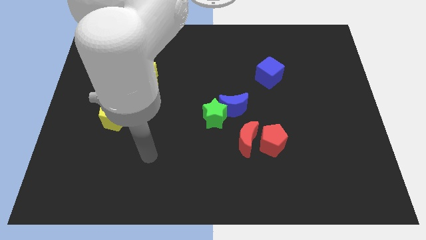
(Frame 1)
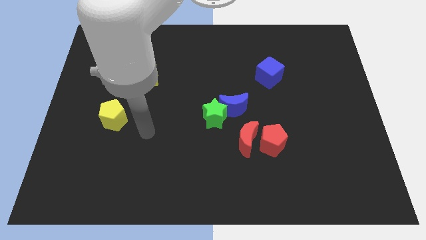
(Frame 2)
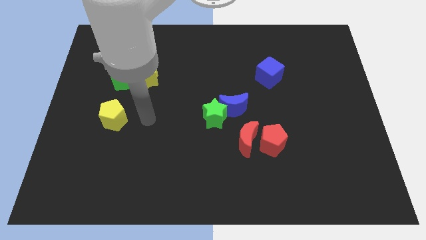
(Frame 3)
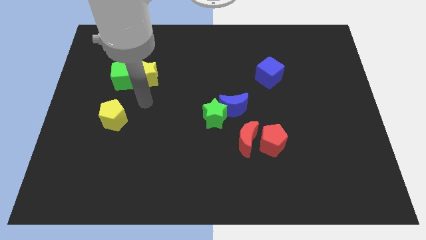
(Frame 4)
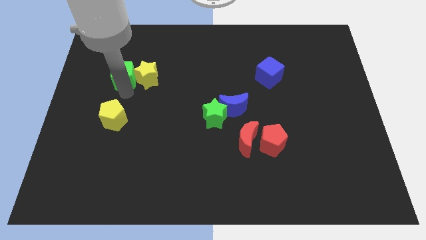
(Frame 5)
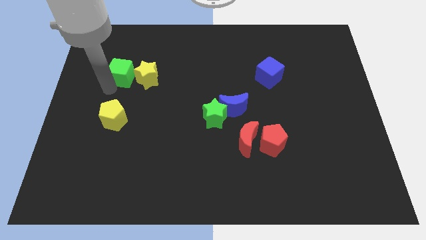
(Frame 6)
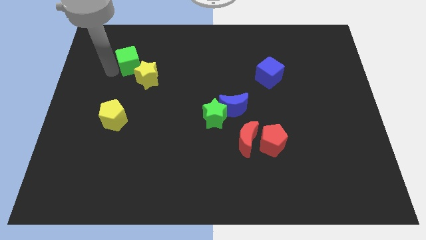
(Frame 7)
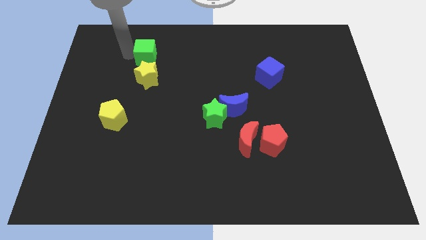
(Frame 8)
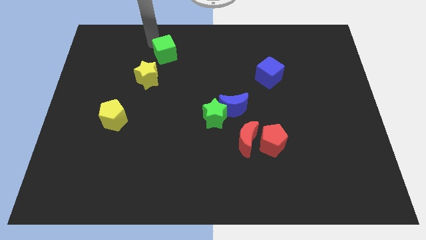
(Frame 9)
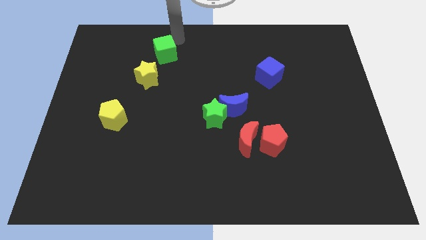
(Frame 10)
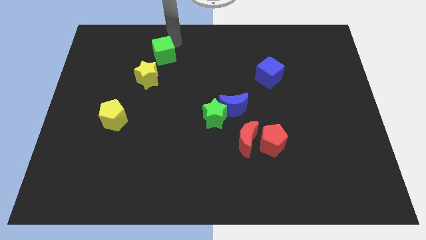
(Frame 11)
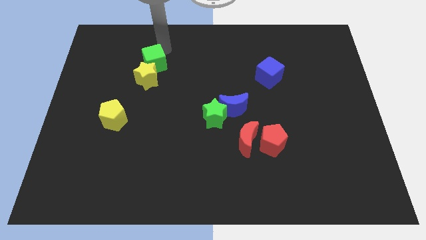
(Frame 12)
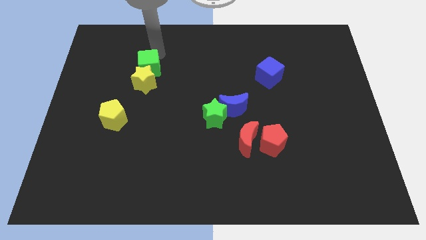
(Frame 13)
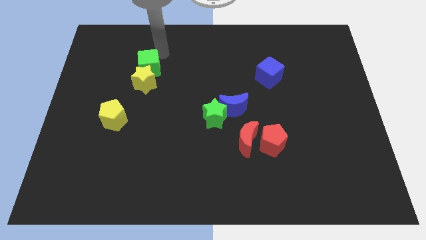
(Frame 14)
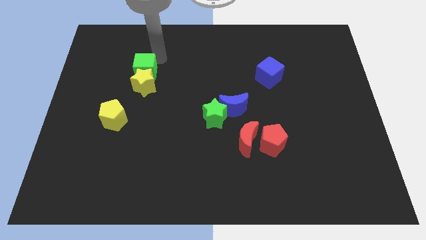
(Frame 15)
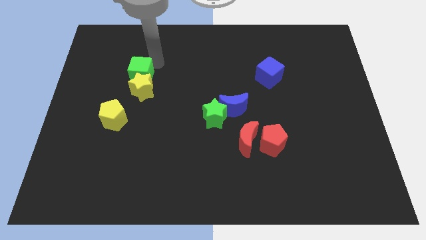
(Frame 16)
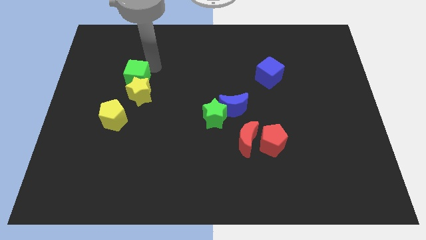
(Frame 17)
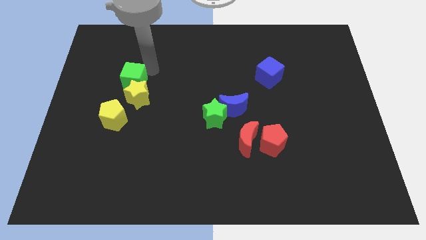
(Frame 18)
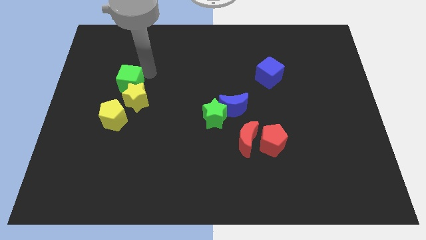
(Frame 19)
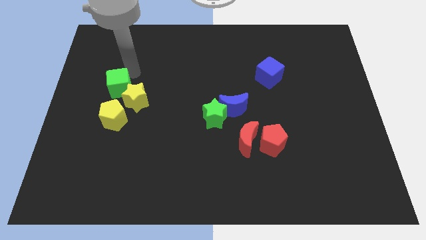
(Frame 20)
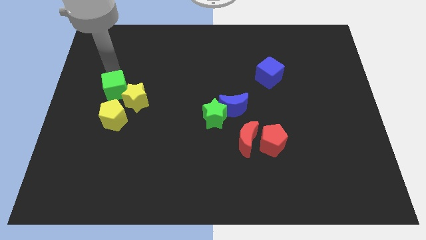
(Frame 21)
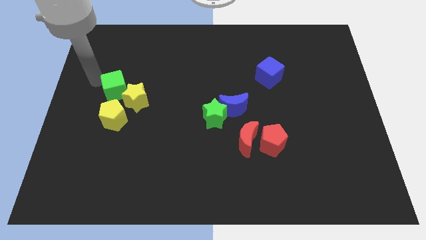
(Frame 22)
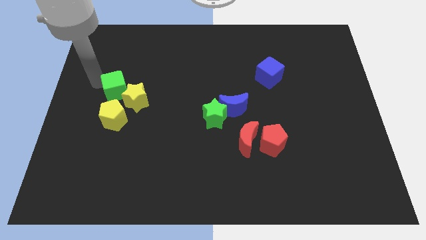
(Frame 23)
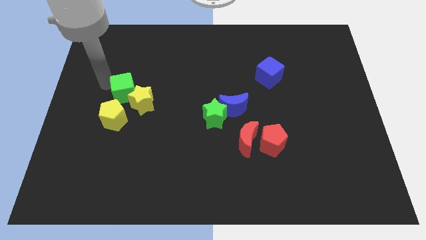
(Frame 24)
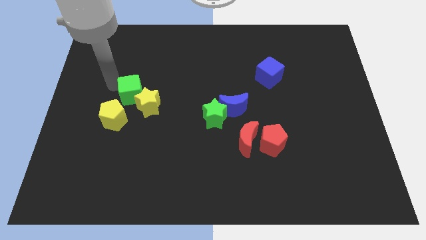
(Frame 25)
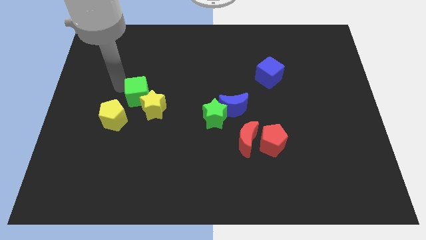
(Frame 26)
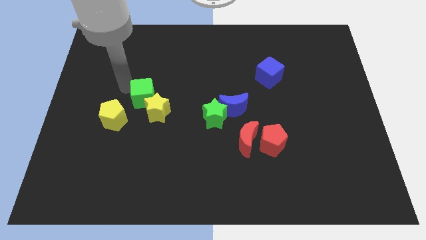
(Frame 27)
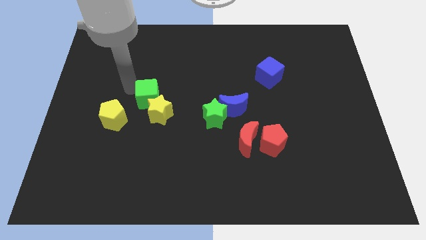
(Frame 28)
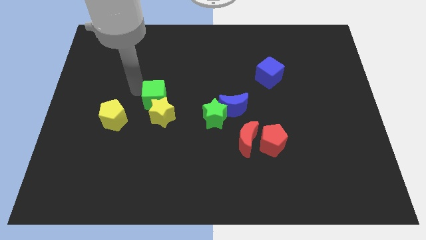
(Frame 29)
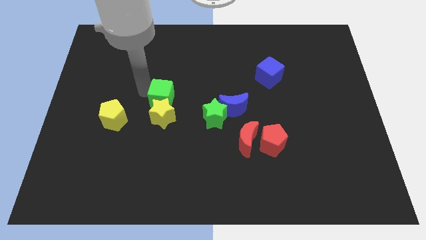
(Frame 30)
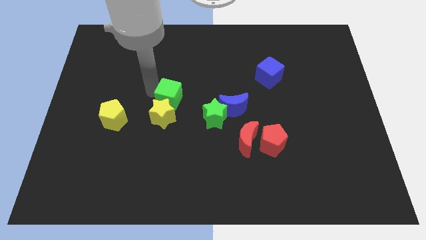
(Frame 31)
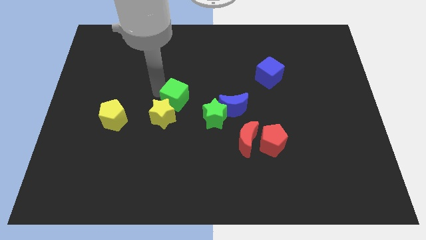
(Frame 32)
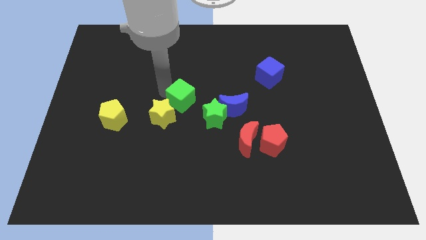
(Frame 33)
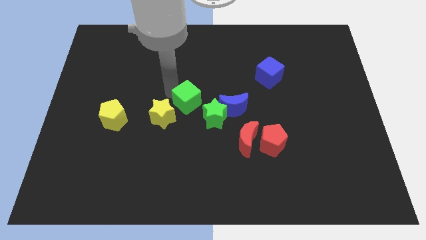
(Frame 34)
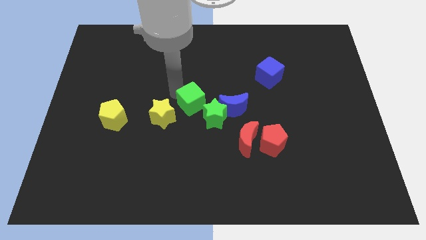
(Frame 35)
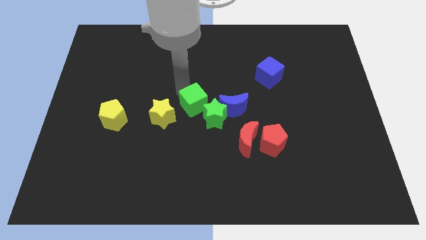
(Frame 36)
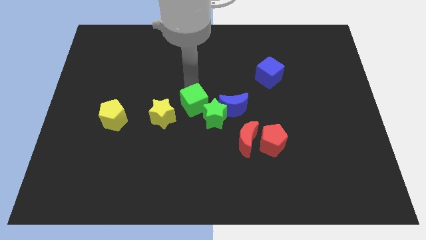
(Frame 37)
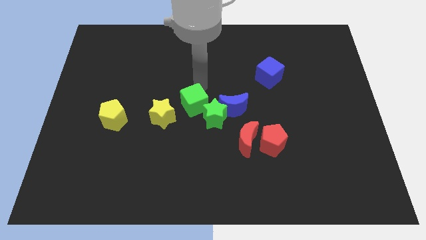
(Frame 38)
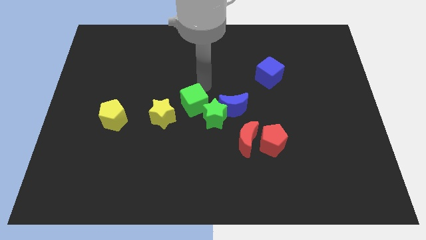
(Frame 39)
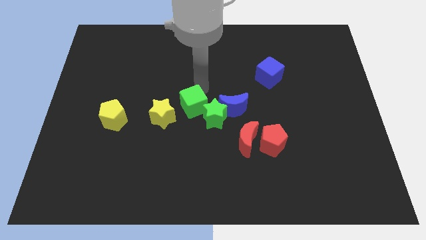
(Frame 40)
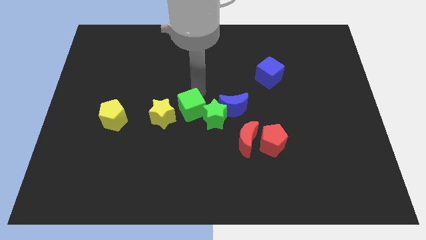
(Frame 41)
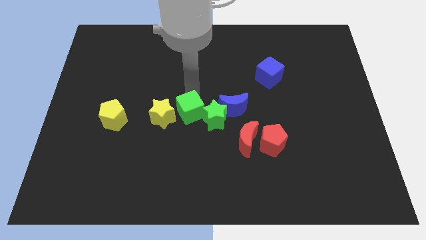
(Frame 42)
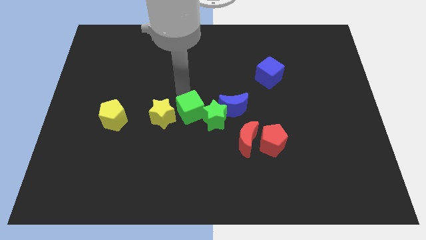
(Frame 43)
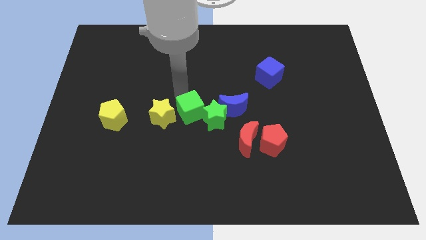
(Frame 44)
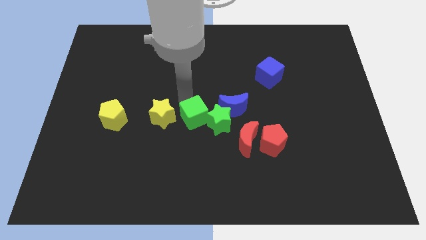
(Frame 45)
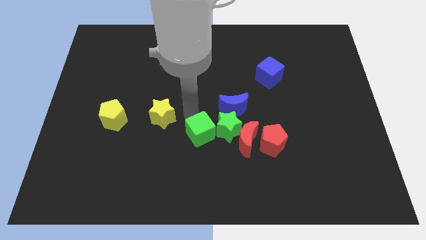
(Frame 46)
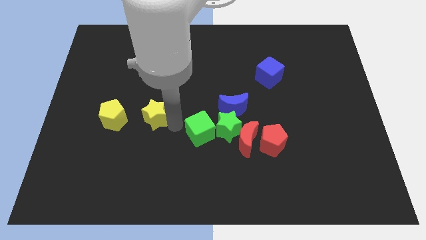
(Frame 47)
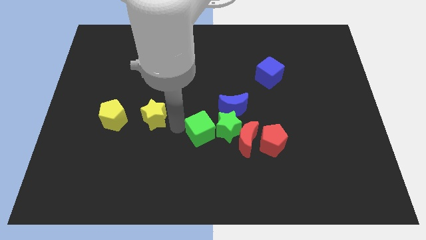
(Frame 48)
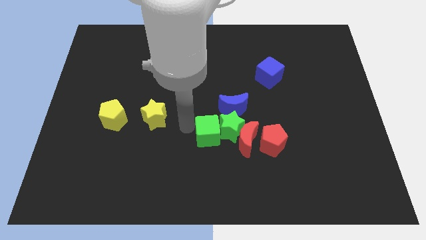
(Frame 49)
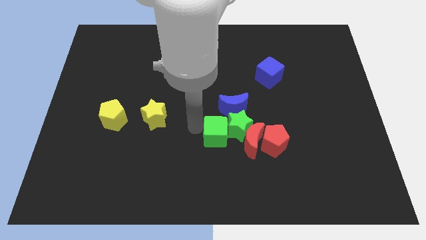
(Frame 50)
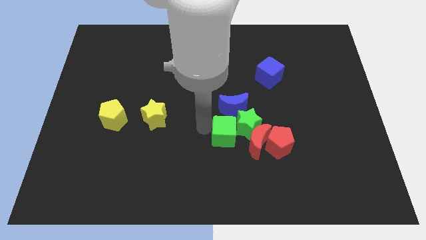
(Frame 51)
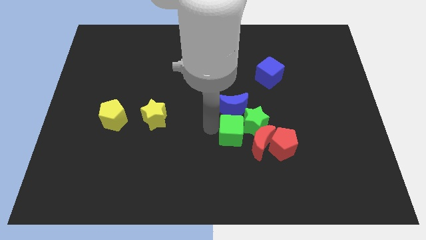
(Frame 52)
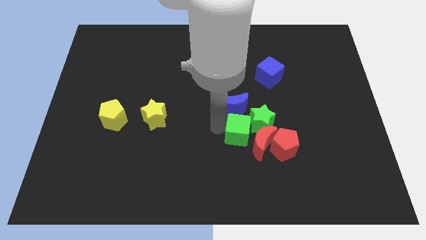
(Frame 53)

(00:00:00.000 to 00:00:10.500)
put the green cube towards the red moon

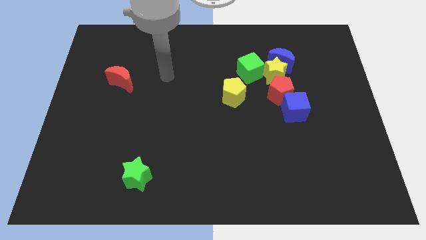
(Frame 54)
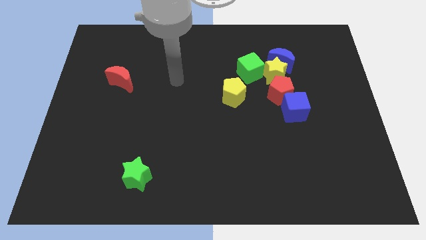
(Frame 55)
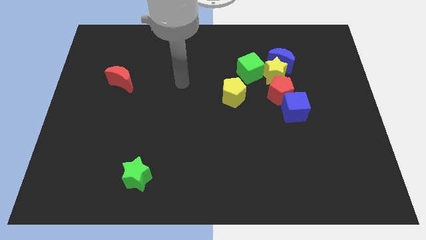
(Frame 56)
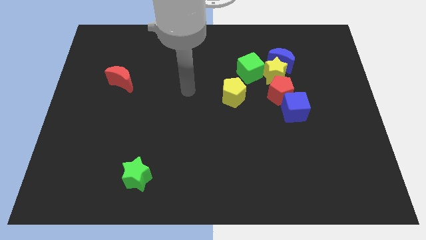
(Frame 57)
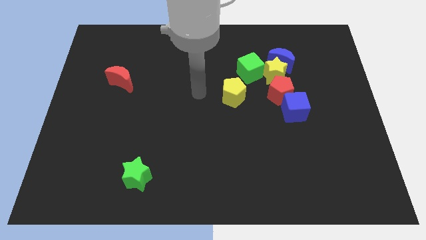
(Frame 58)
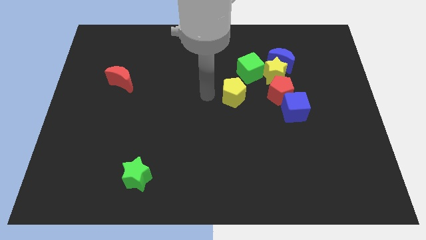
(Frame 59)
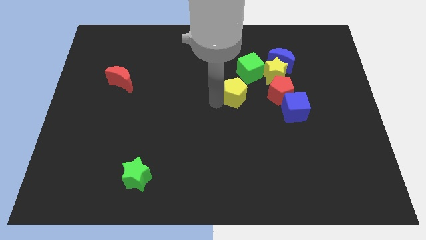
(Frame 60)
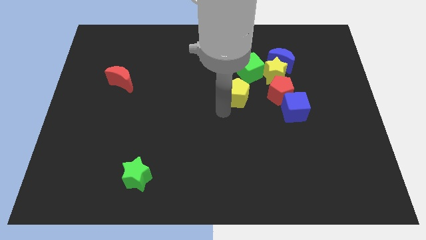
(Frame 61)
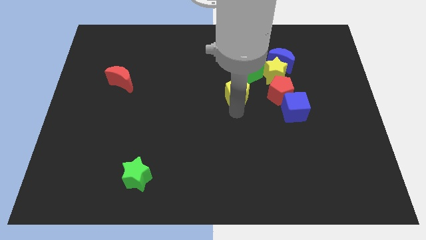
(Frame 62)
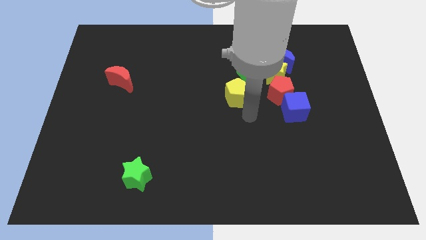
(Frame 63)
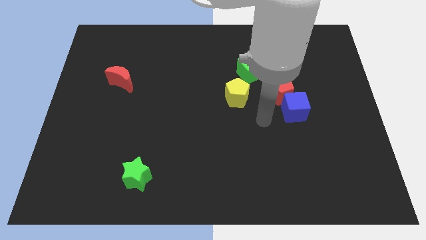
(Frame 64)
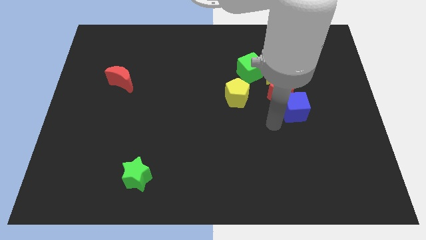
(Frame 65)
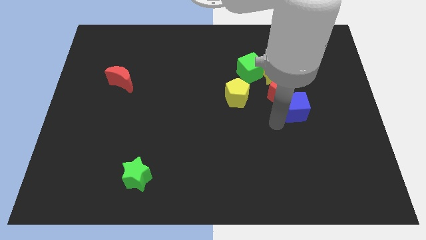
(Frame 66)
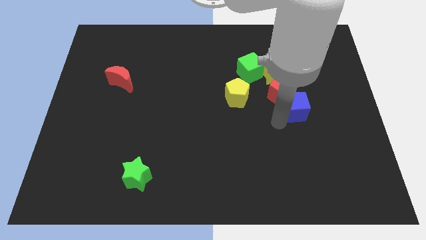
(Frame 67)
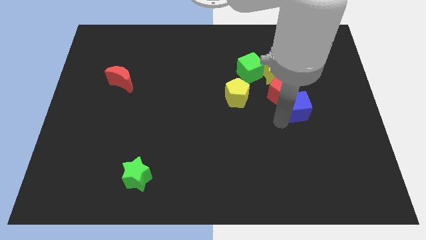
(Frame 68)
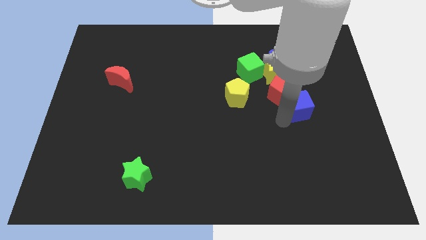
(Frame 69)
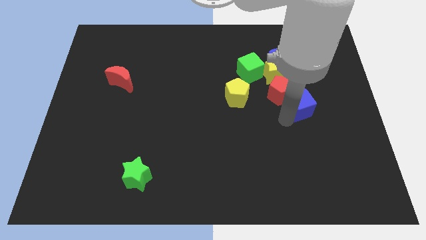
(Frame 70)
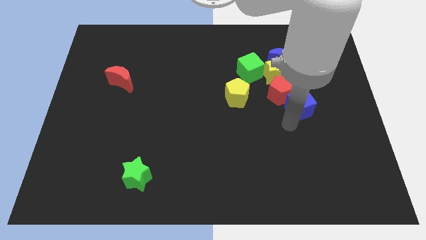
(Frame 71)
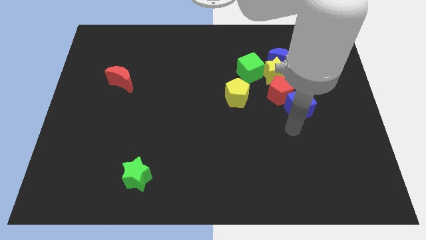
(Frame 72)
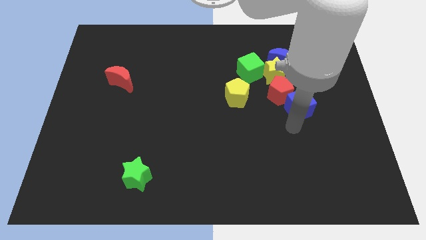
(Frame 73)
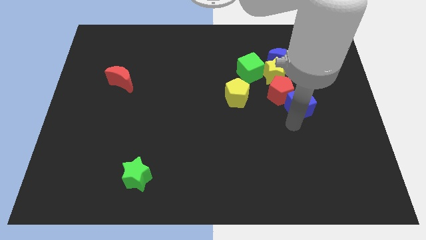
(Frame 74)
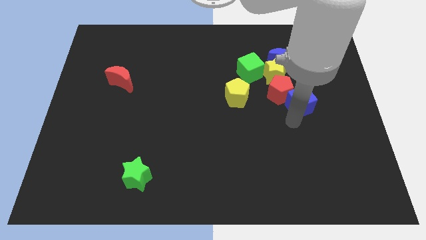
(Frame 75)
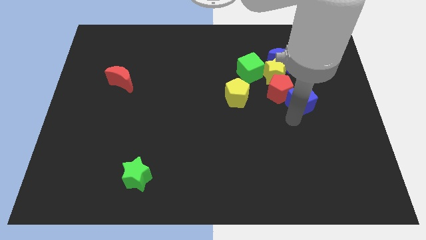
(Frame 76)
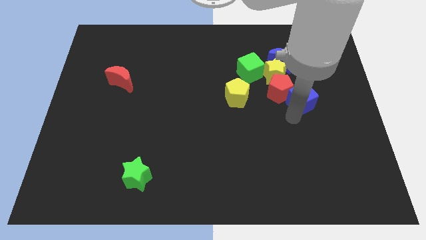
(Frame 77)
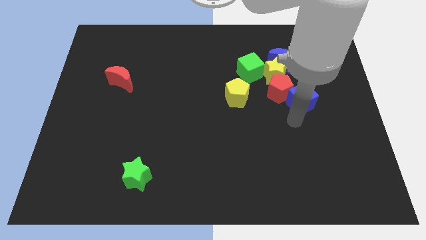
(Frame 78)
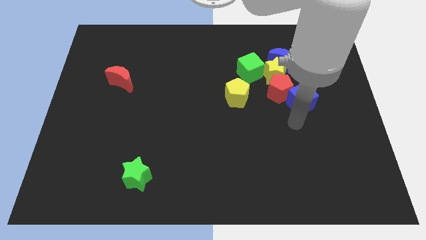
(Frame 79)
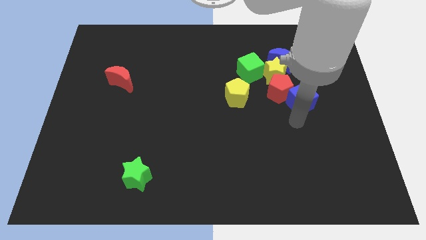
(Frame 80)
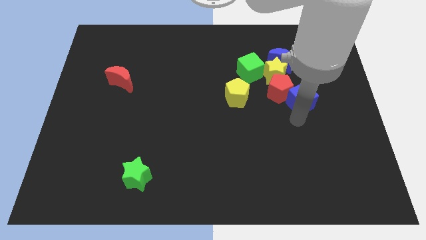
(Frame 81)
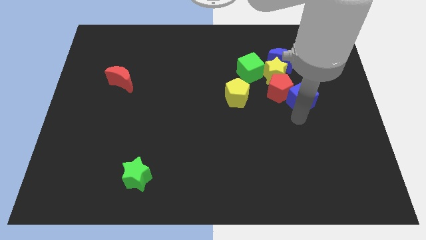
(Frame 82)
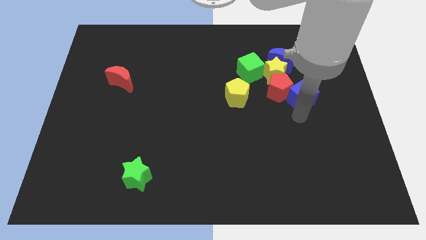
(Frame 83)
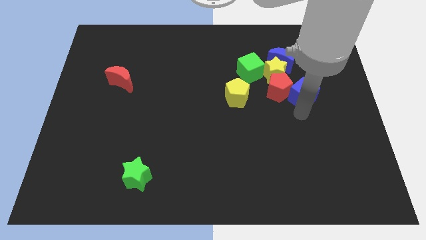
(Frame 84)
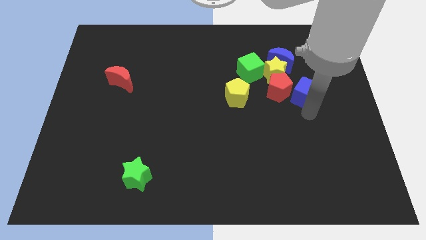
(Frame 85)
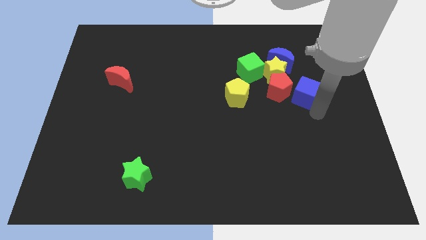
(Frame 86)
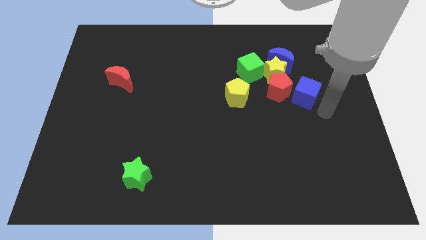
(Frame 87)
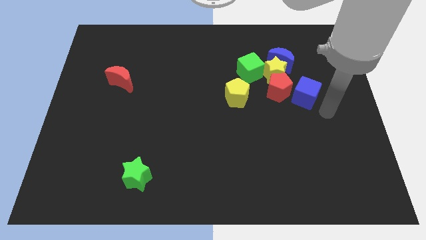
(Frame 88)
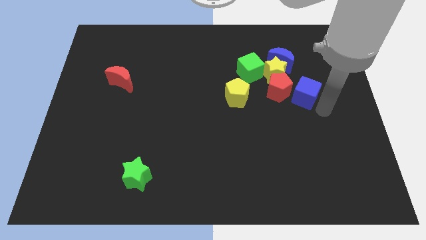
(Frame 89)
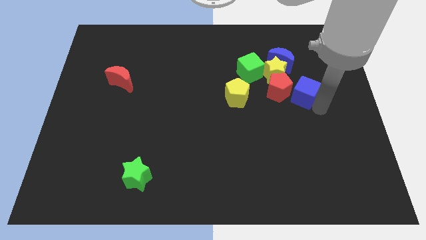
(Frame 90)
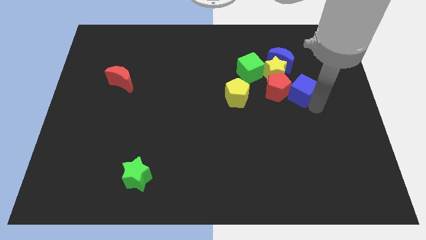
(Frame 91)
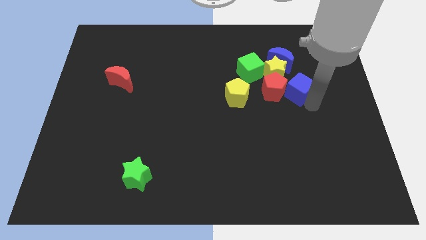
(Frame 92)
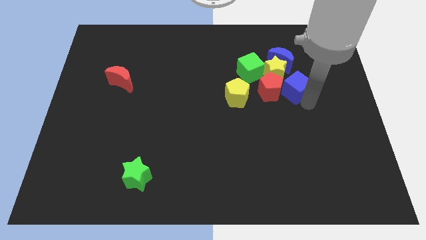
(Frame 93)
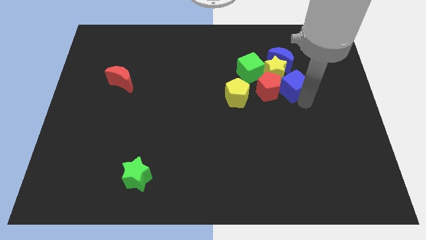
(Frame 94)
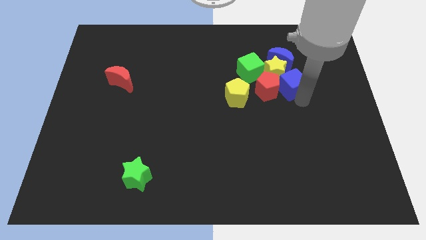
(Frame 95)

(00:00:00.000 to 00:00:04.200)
push the blue cube to the yellow star
